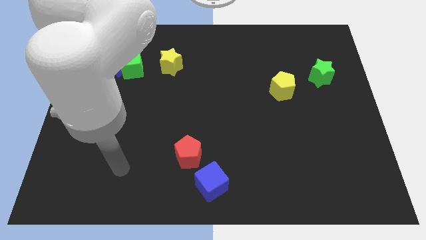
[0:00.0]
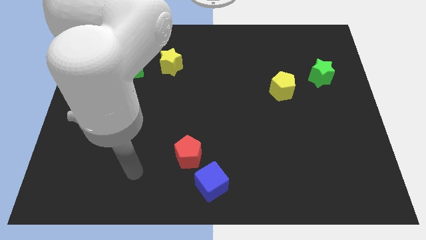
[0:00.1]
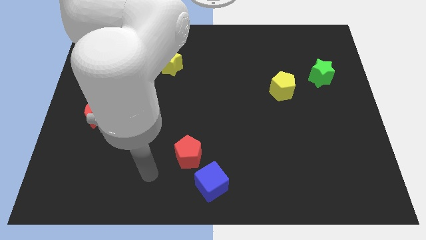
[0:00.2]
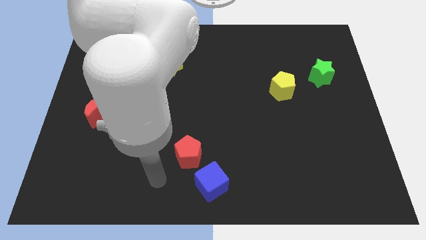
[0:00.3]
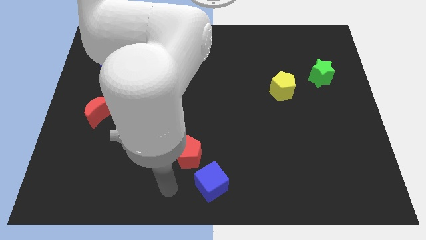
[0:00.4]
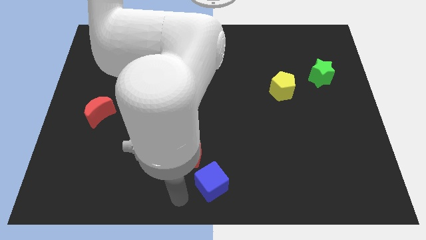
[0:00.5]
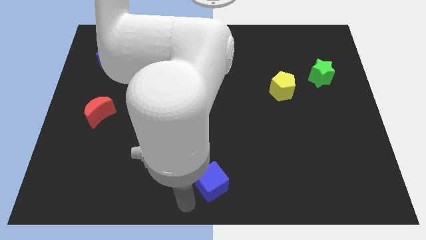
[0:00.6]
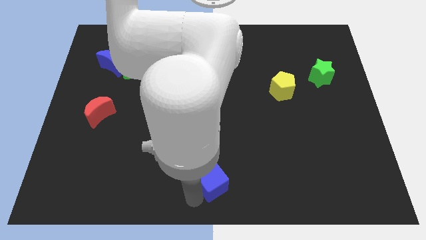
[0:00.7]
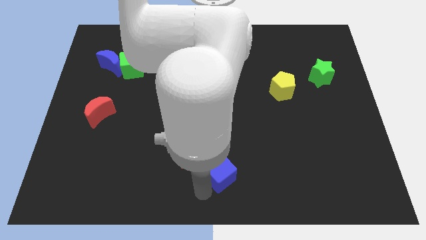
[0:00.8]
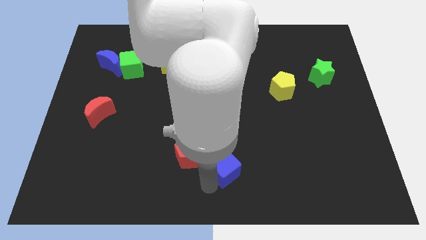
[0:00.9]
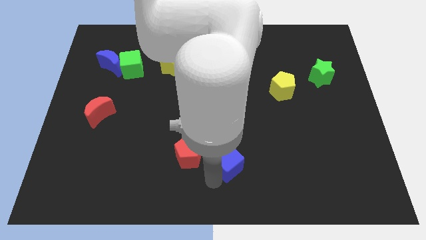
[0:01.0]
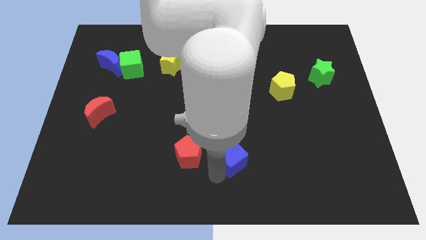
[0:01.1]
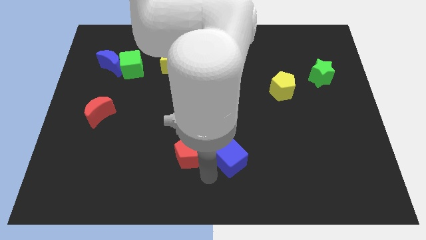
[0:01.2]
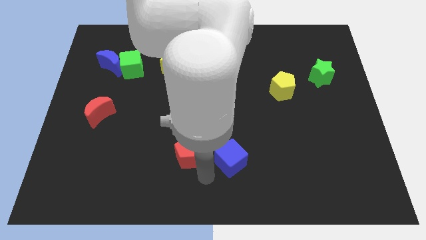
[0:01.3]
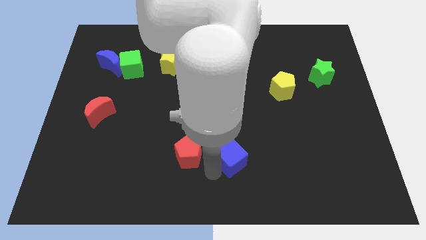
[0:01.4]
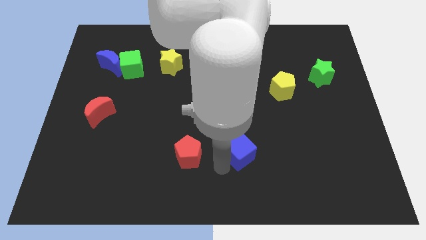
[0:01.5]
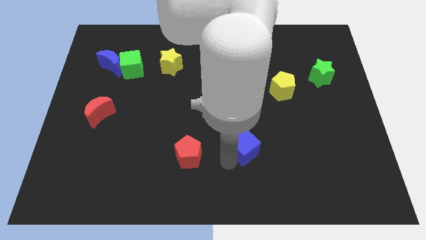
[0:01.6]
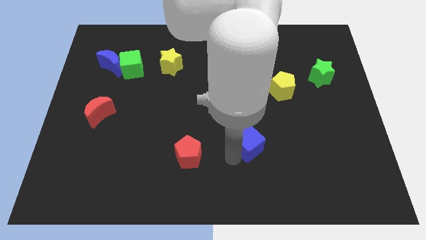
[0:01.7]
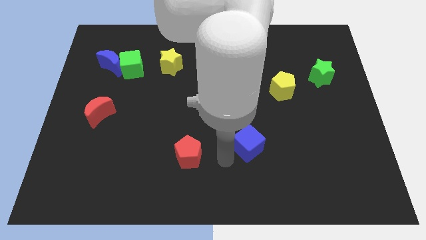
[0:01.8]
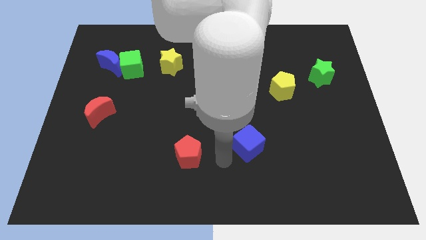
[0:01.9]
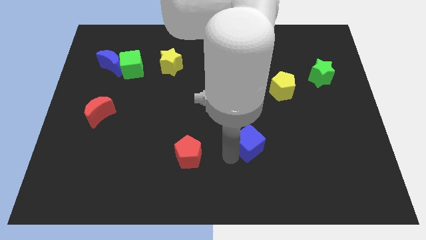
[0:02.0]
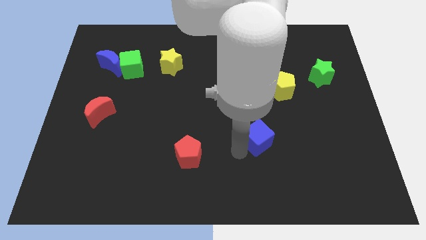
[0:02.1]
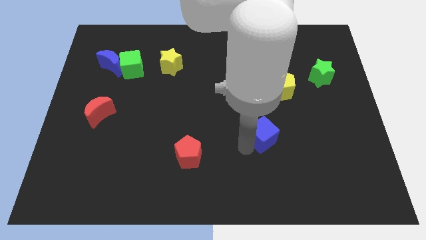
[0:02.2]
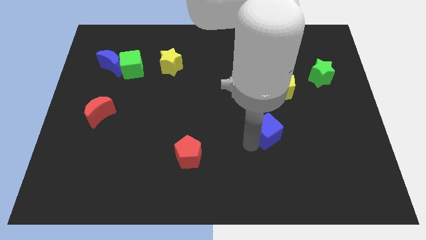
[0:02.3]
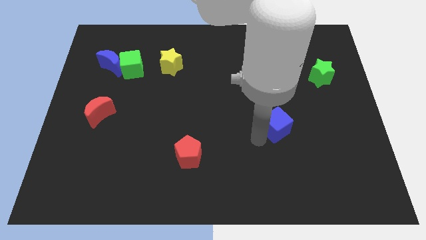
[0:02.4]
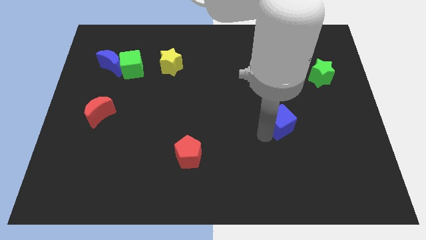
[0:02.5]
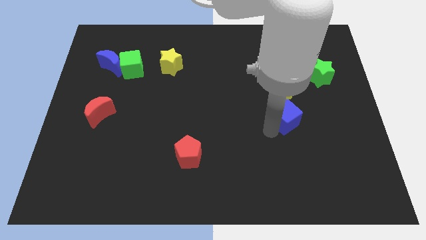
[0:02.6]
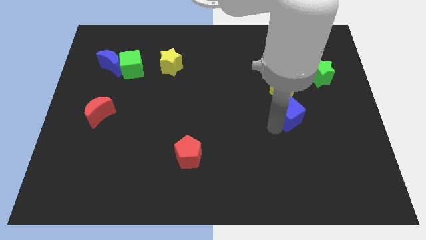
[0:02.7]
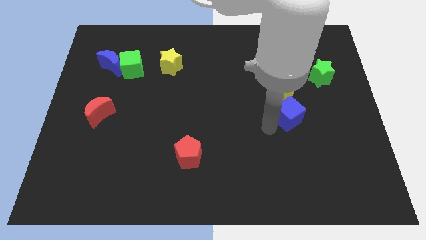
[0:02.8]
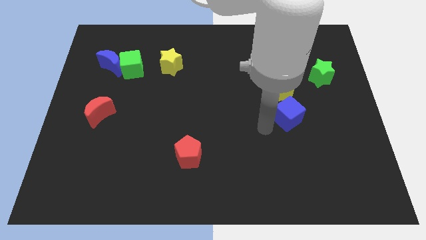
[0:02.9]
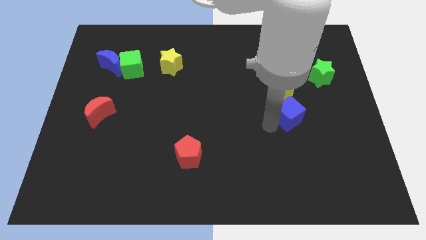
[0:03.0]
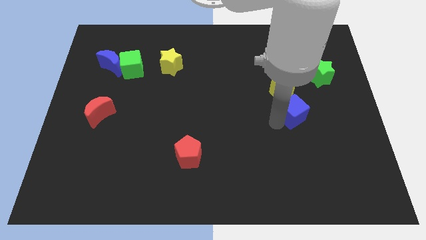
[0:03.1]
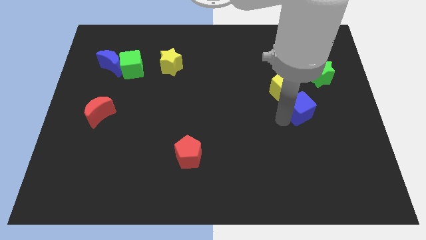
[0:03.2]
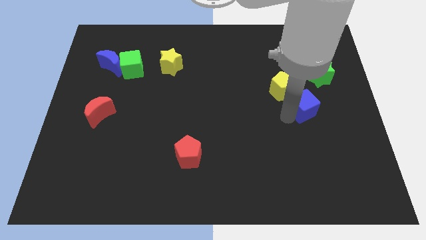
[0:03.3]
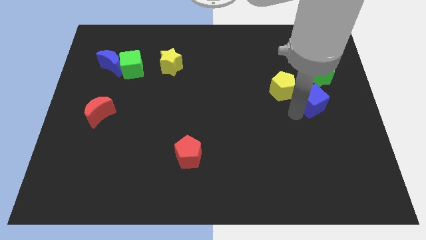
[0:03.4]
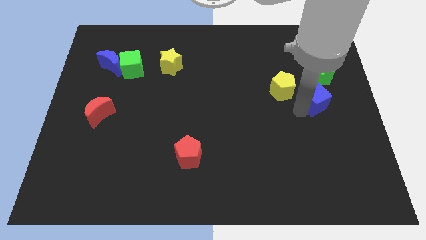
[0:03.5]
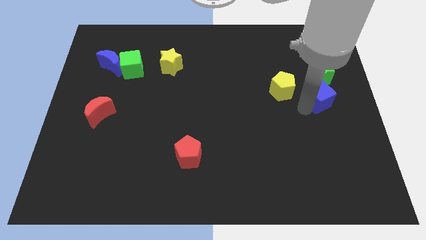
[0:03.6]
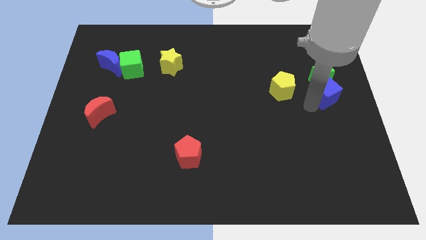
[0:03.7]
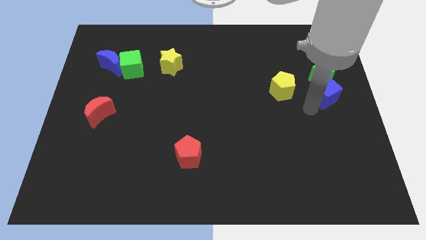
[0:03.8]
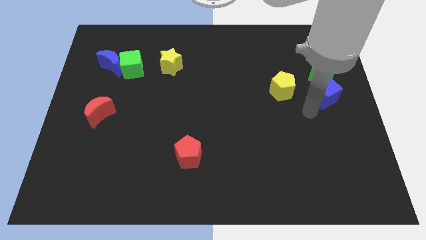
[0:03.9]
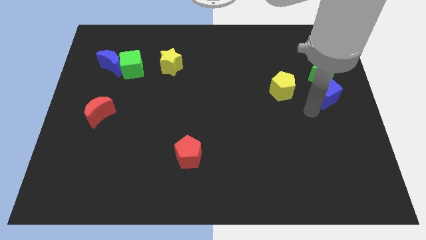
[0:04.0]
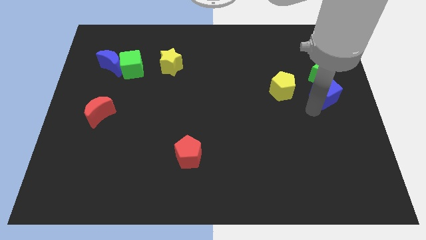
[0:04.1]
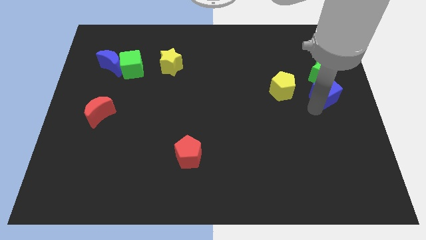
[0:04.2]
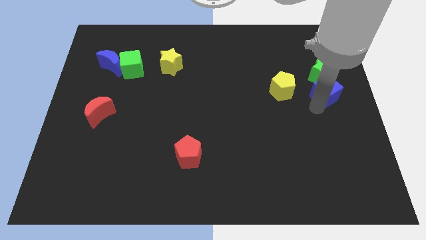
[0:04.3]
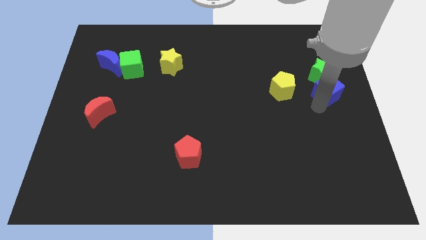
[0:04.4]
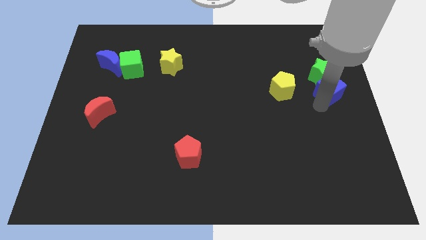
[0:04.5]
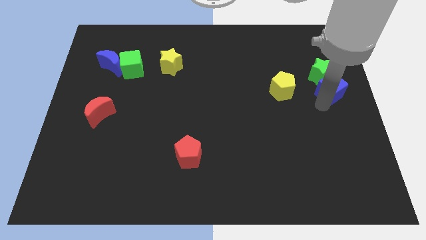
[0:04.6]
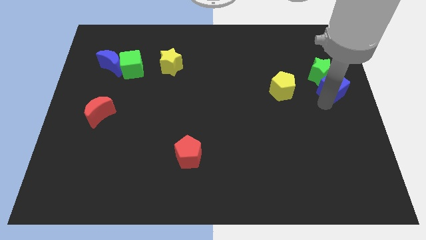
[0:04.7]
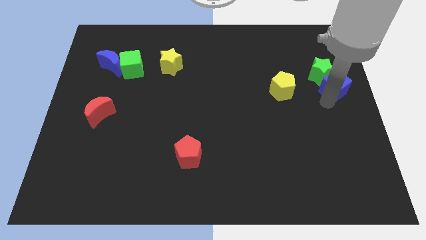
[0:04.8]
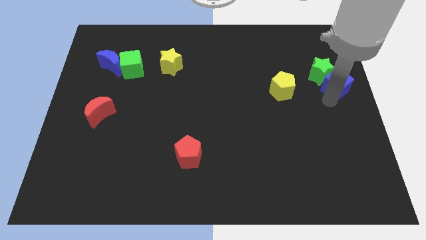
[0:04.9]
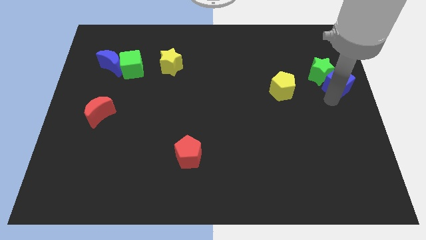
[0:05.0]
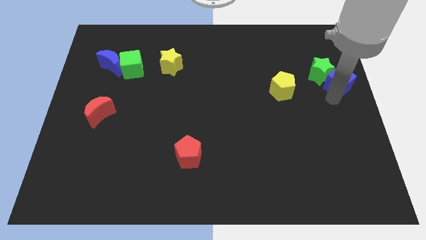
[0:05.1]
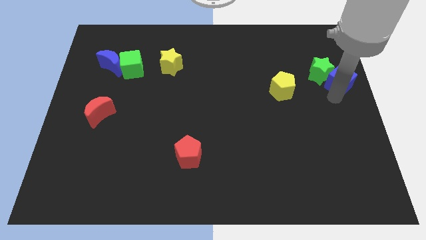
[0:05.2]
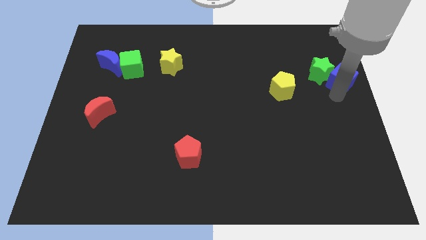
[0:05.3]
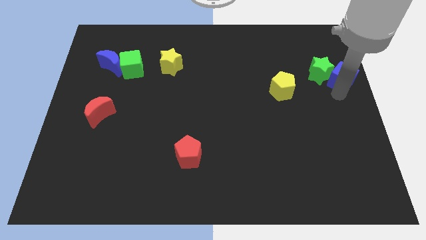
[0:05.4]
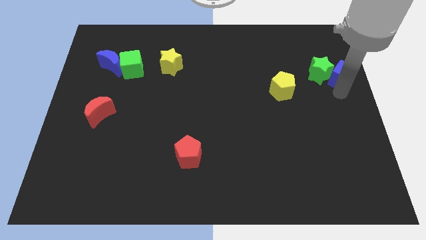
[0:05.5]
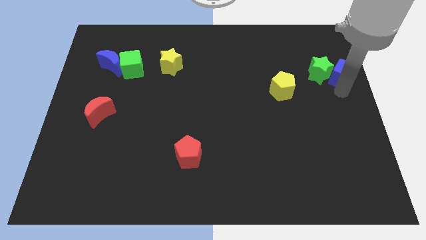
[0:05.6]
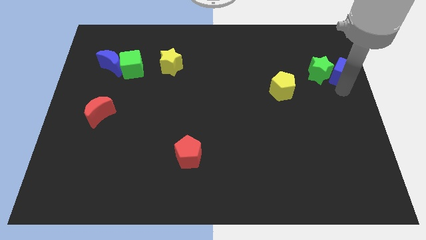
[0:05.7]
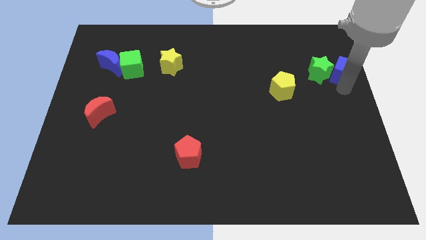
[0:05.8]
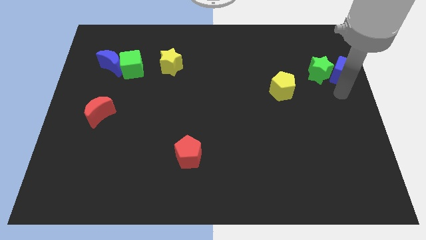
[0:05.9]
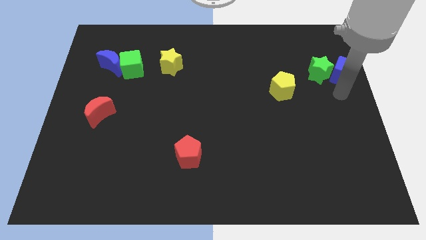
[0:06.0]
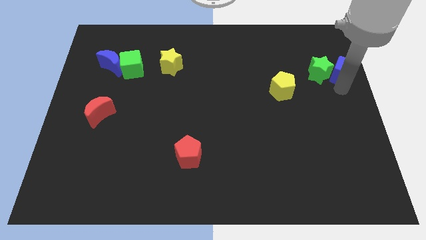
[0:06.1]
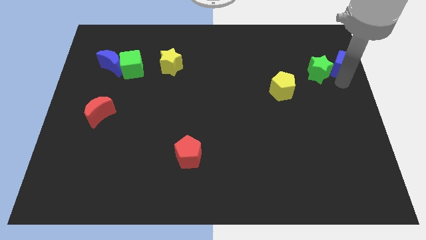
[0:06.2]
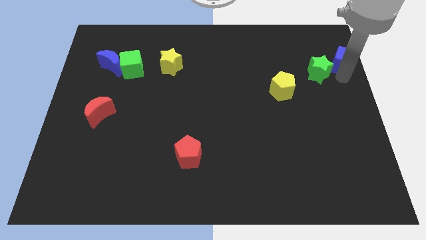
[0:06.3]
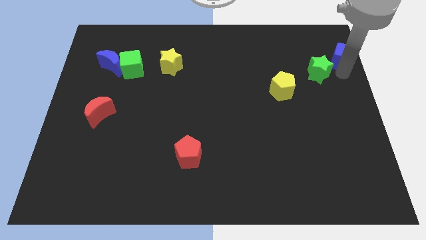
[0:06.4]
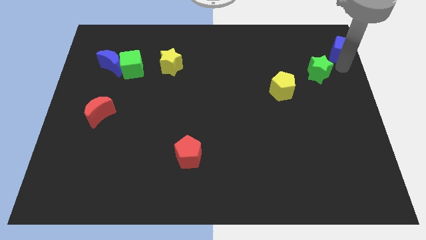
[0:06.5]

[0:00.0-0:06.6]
slide the blue cube to the top right
